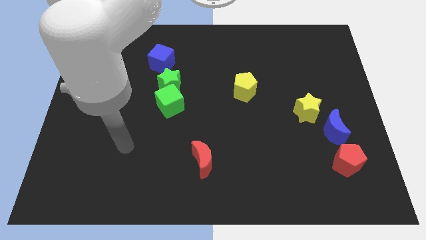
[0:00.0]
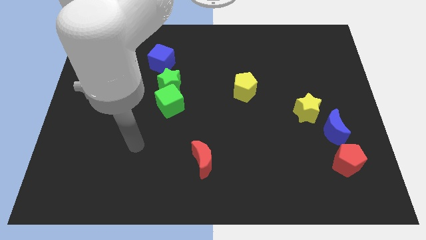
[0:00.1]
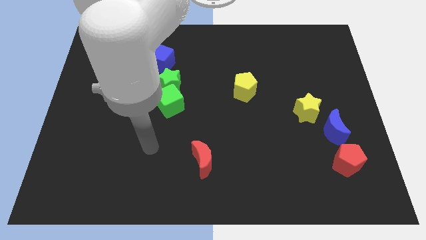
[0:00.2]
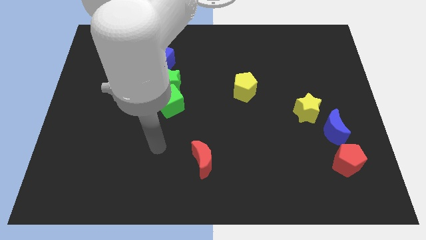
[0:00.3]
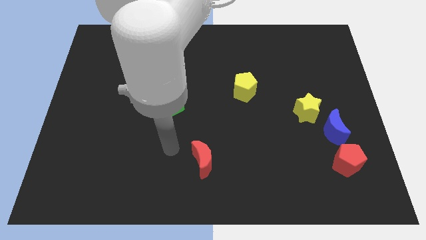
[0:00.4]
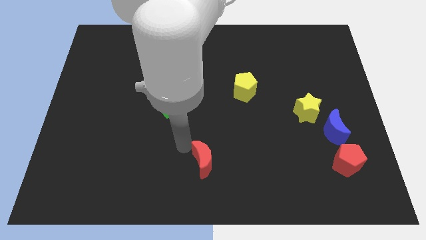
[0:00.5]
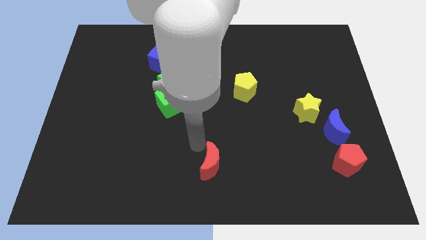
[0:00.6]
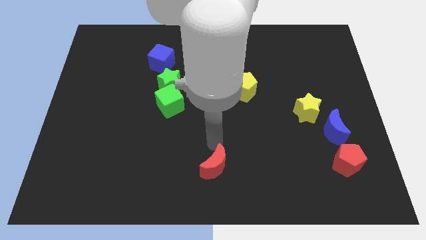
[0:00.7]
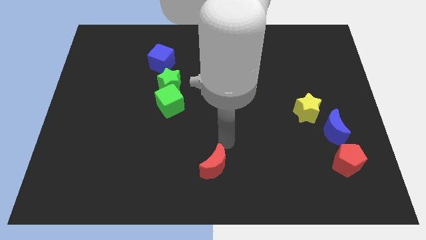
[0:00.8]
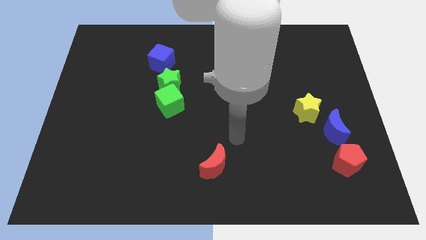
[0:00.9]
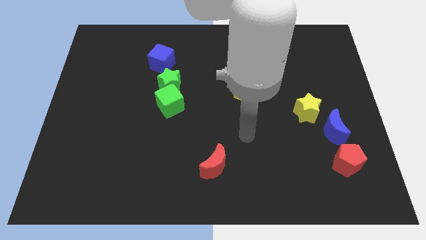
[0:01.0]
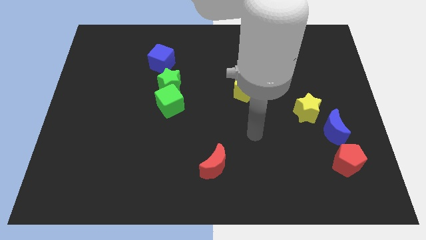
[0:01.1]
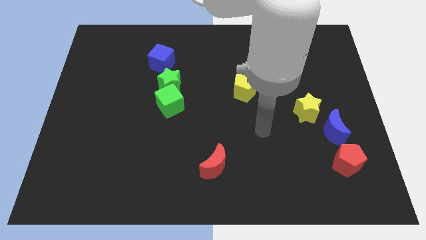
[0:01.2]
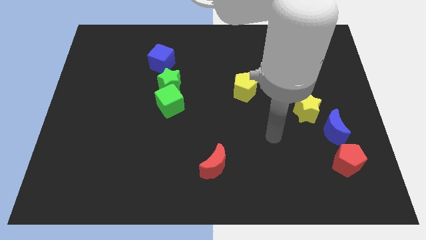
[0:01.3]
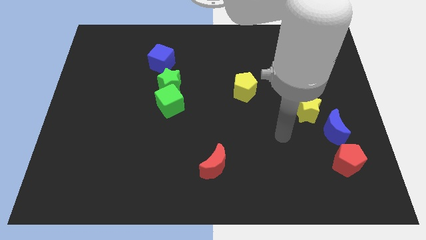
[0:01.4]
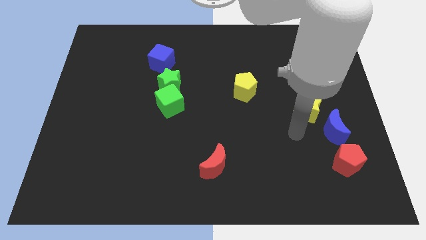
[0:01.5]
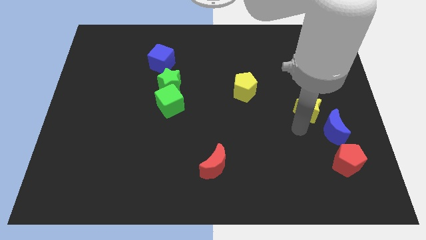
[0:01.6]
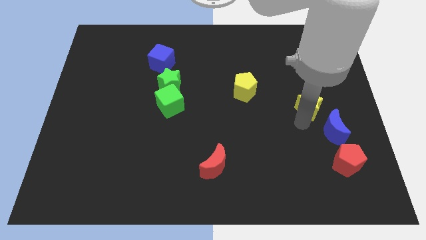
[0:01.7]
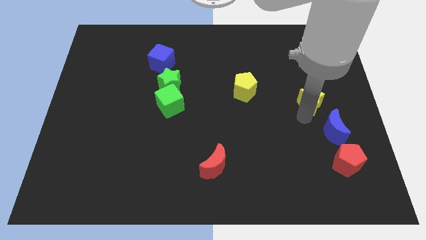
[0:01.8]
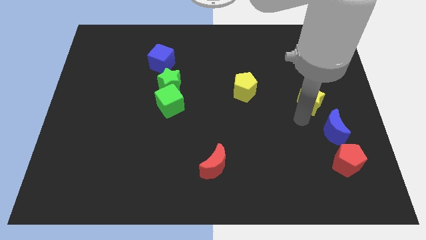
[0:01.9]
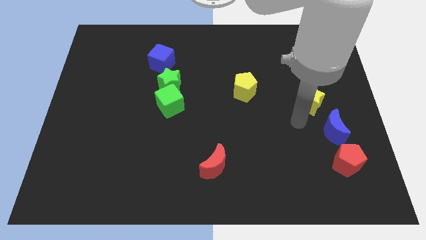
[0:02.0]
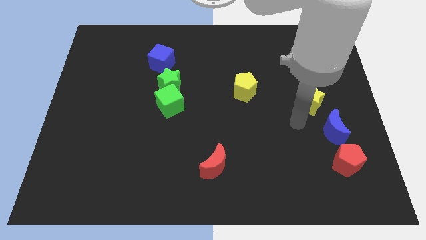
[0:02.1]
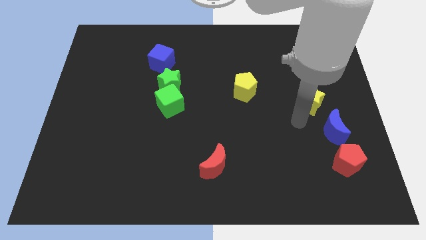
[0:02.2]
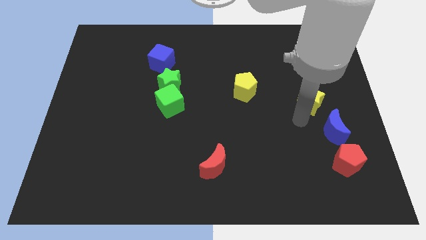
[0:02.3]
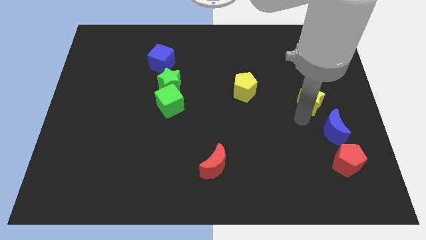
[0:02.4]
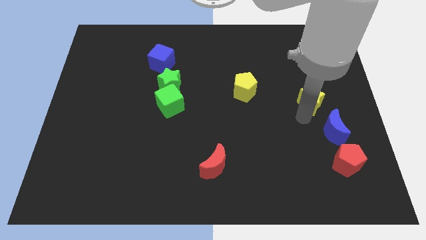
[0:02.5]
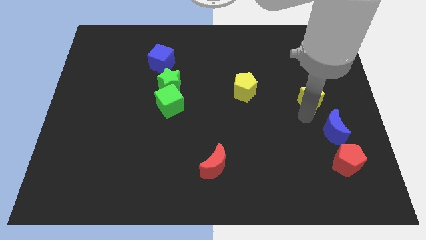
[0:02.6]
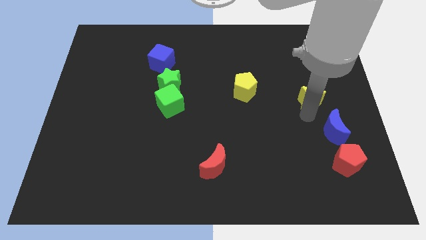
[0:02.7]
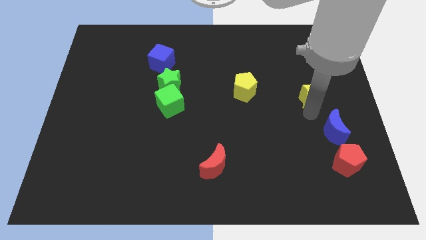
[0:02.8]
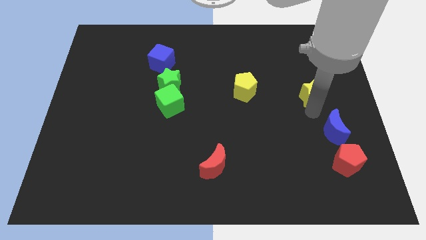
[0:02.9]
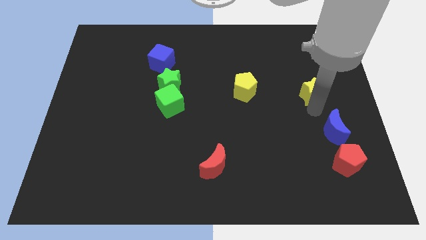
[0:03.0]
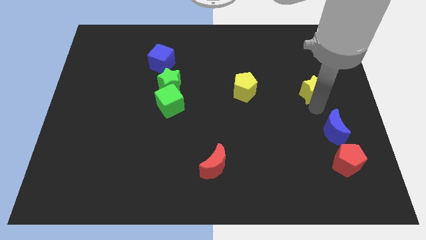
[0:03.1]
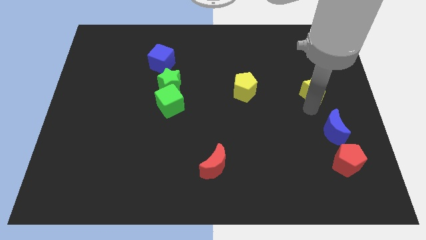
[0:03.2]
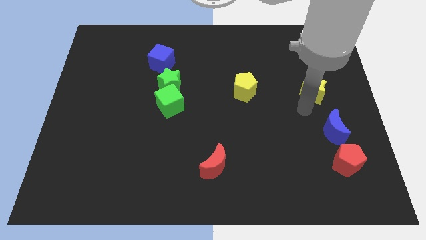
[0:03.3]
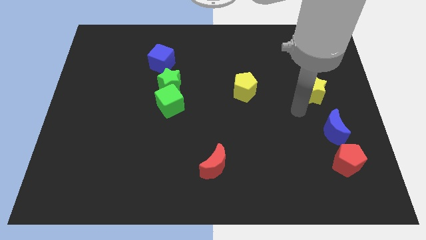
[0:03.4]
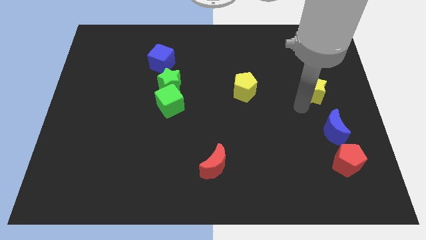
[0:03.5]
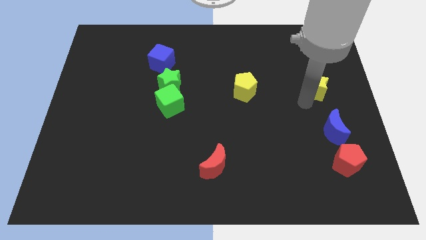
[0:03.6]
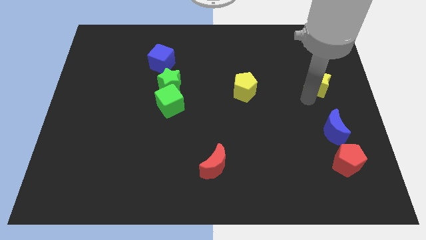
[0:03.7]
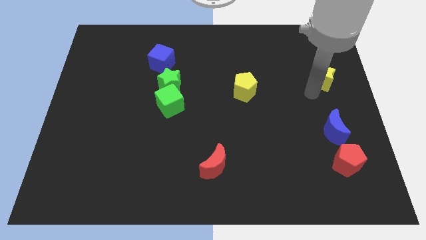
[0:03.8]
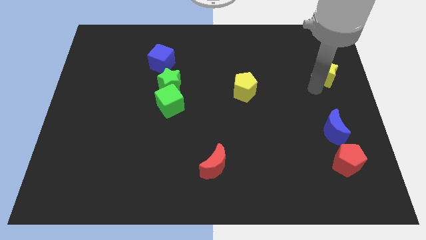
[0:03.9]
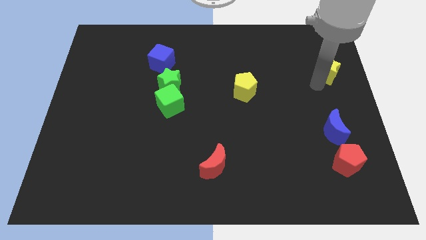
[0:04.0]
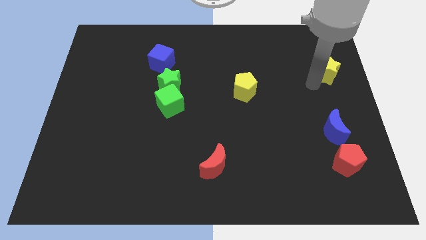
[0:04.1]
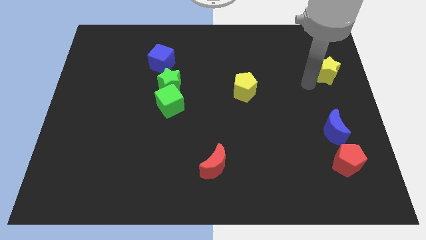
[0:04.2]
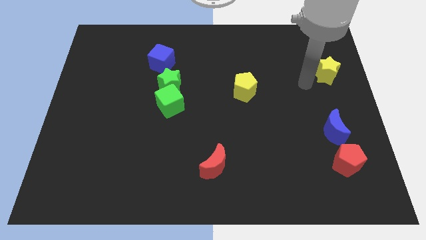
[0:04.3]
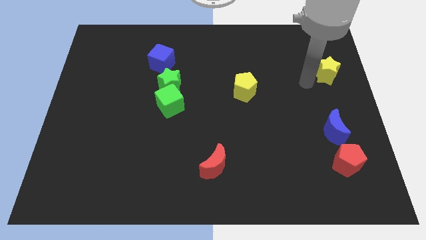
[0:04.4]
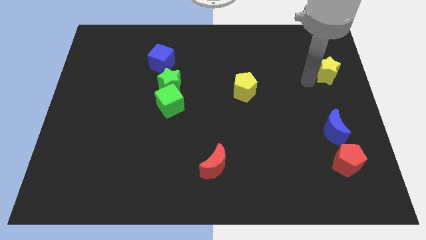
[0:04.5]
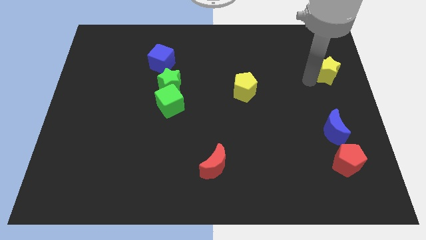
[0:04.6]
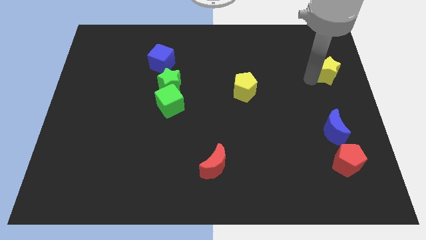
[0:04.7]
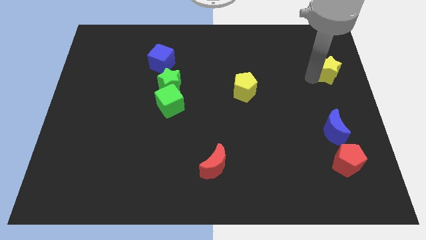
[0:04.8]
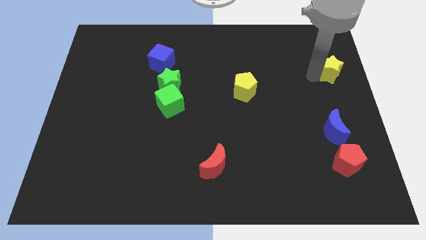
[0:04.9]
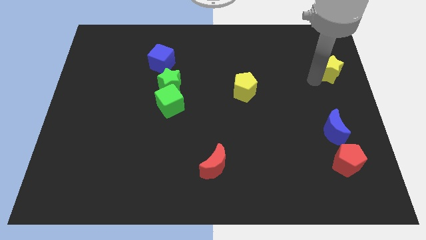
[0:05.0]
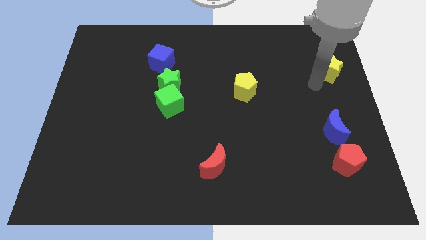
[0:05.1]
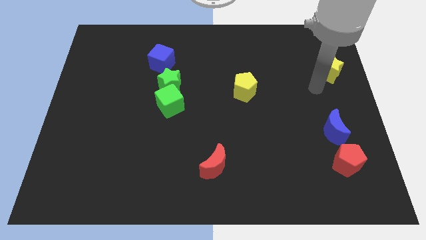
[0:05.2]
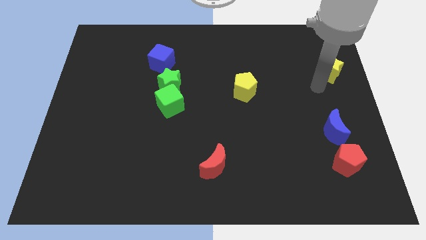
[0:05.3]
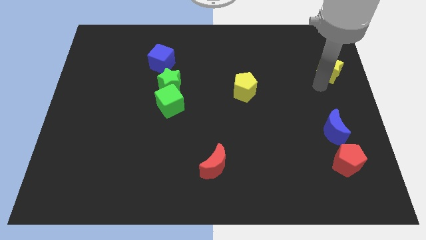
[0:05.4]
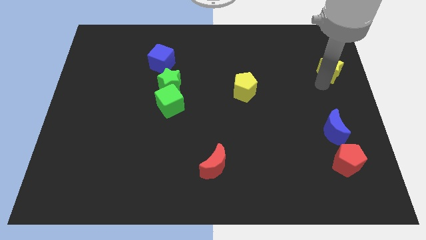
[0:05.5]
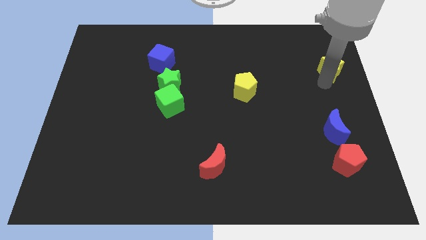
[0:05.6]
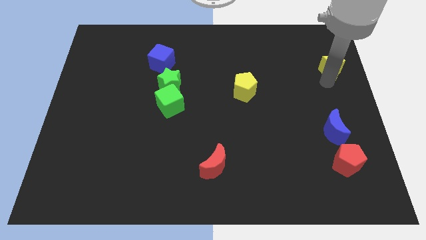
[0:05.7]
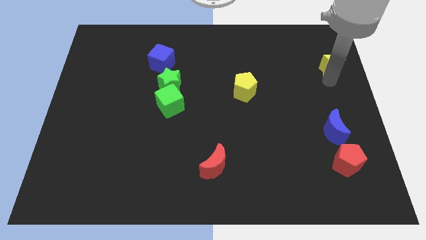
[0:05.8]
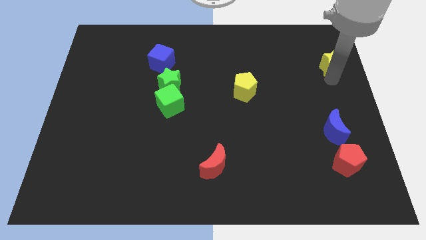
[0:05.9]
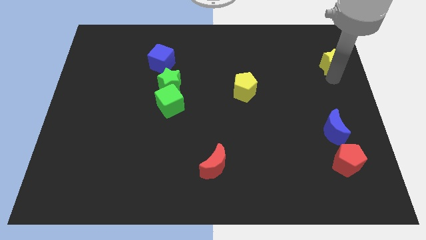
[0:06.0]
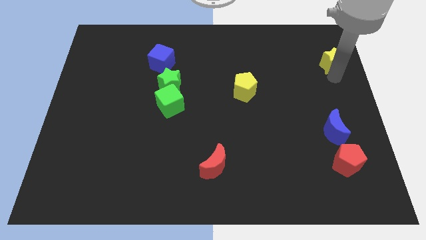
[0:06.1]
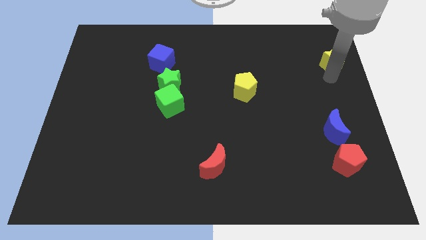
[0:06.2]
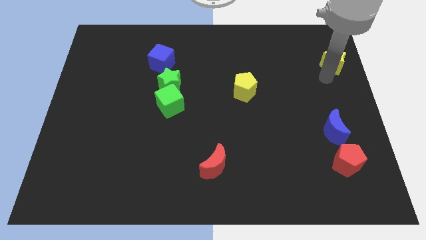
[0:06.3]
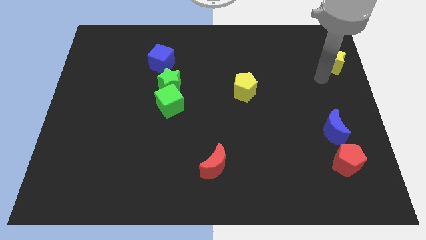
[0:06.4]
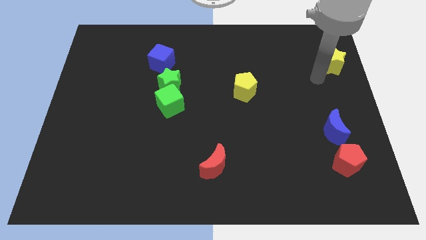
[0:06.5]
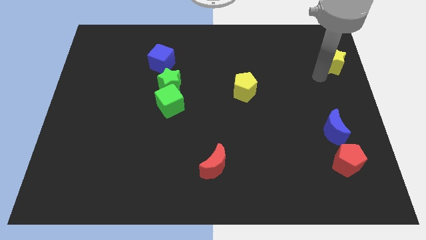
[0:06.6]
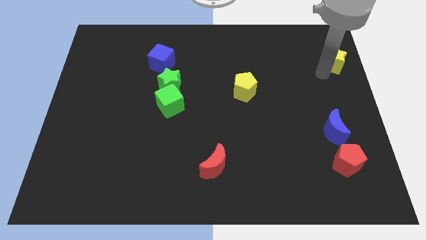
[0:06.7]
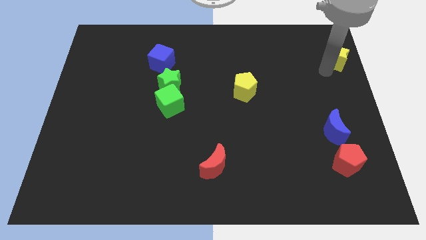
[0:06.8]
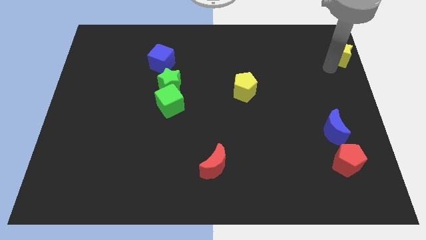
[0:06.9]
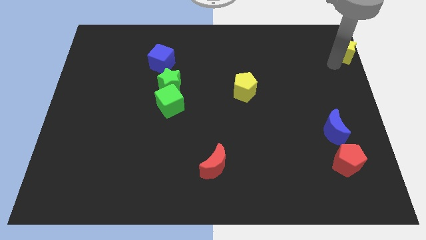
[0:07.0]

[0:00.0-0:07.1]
move the yellow star to the top right
